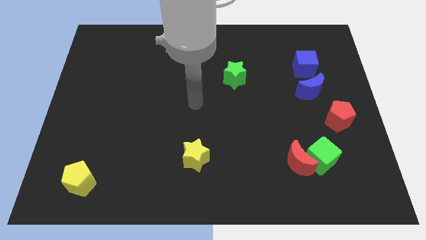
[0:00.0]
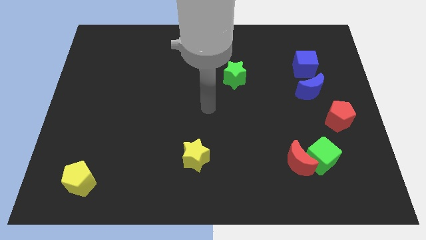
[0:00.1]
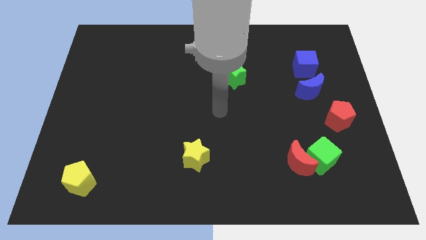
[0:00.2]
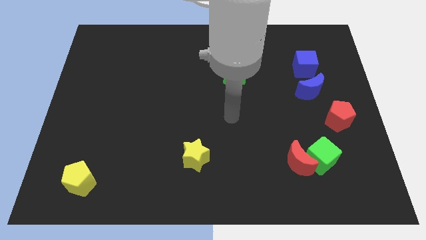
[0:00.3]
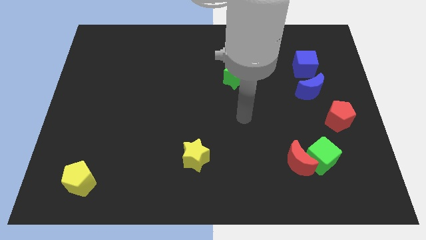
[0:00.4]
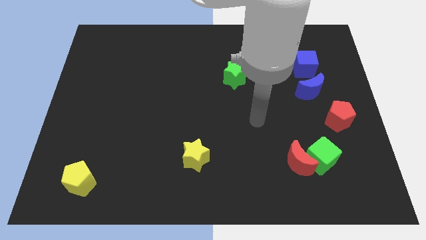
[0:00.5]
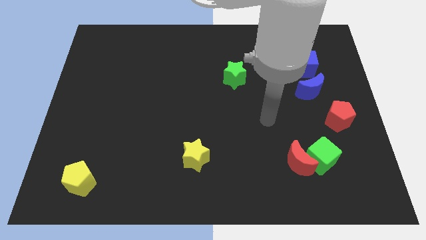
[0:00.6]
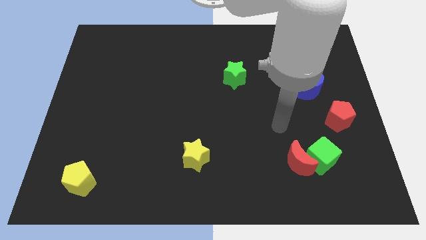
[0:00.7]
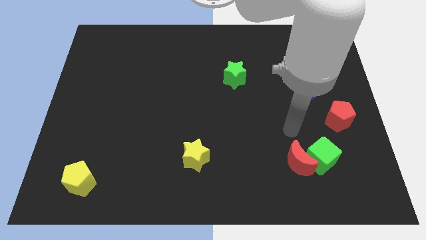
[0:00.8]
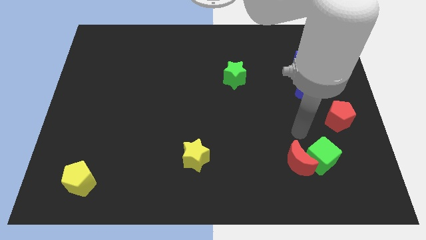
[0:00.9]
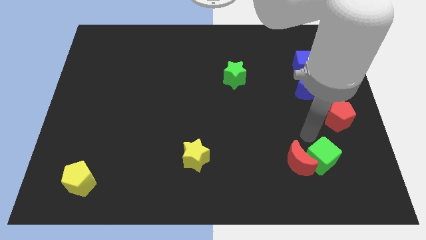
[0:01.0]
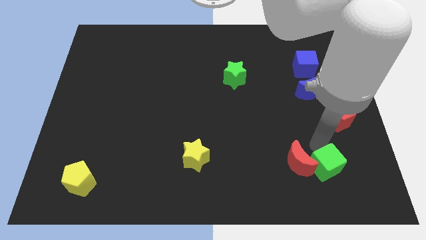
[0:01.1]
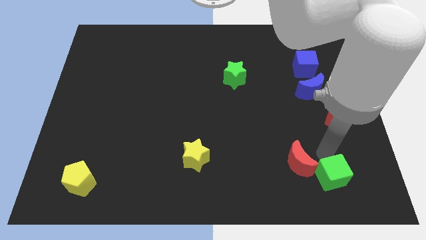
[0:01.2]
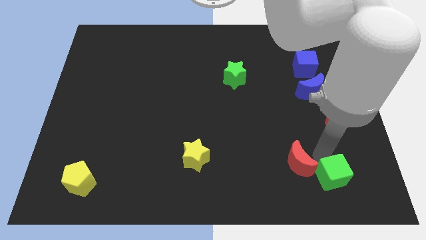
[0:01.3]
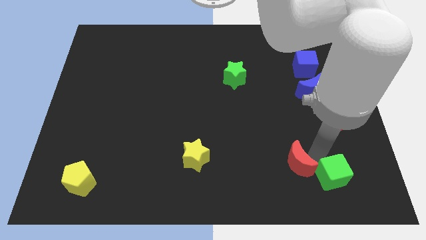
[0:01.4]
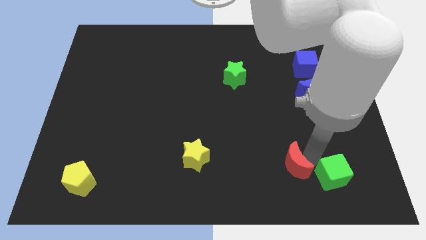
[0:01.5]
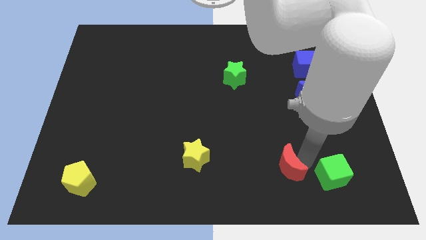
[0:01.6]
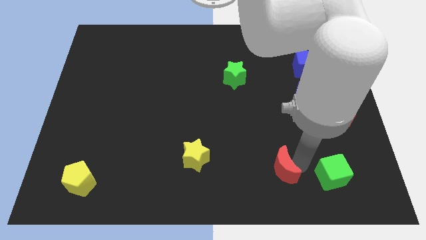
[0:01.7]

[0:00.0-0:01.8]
separate the red moon from the green cube

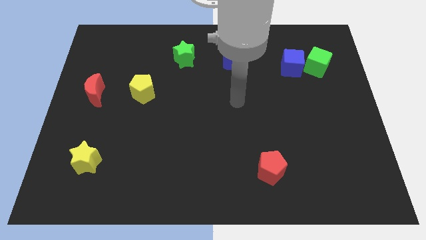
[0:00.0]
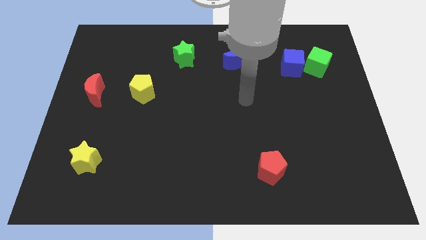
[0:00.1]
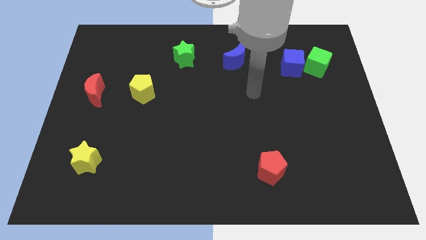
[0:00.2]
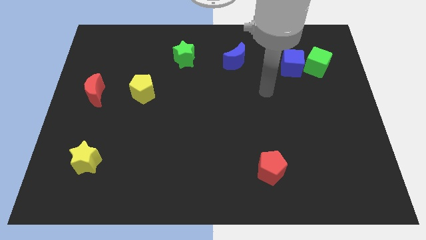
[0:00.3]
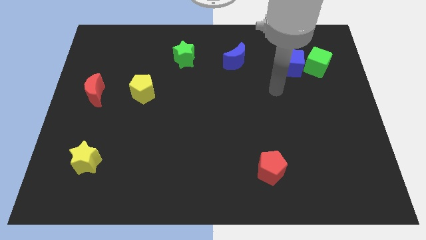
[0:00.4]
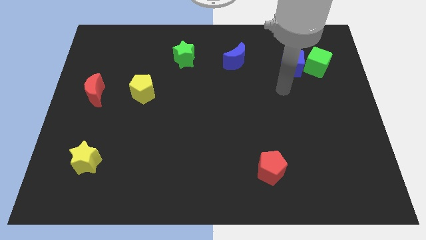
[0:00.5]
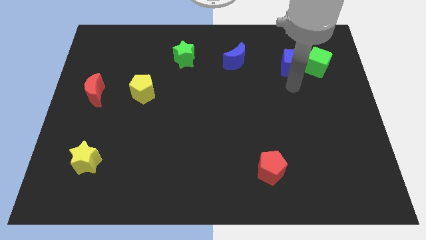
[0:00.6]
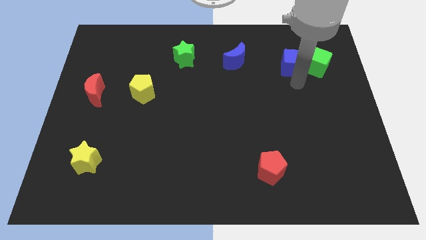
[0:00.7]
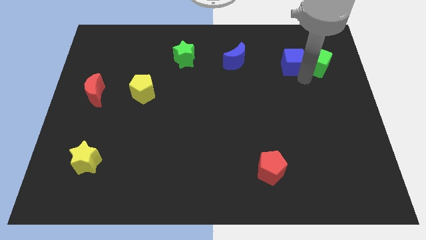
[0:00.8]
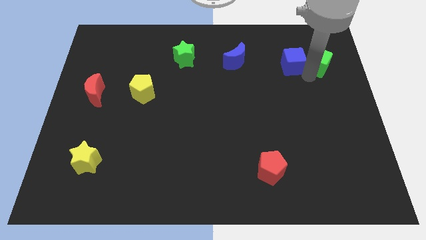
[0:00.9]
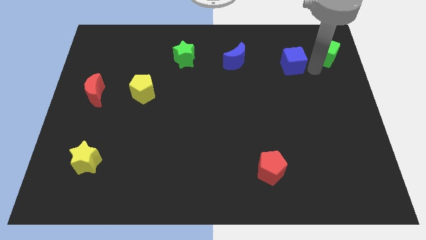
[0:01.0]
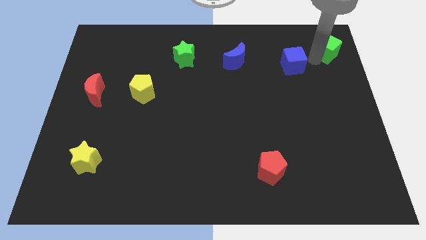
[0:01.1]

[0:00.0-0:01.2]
move the blue cube away from the green cube

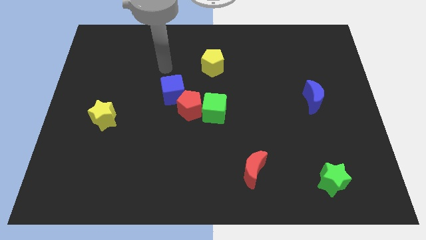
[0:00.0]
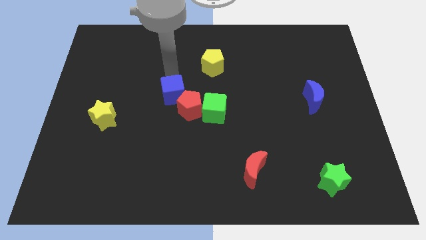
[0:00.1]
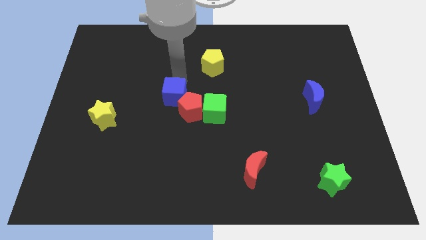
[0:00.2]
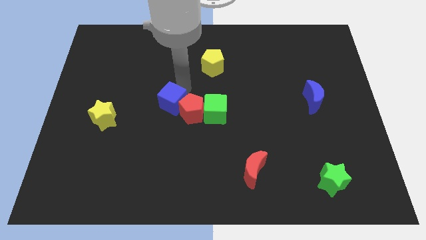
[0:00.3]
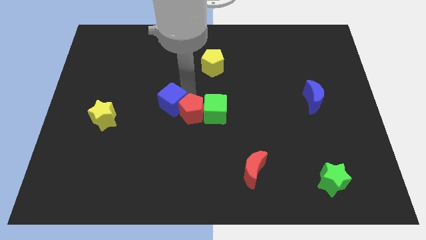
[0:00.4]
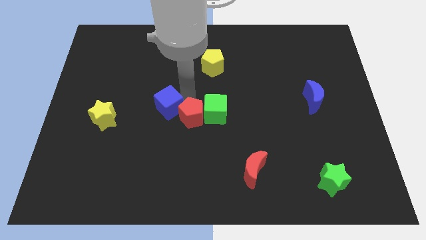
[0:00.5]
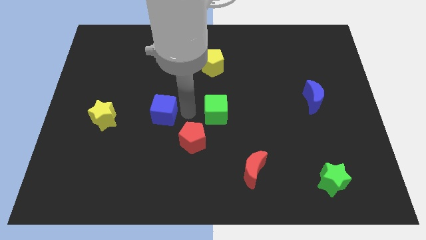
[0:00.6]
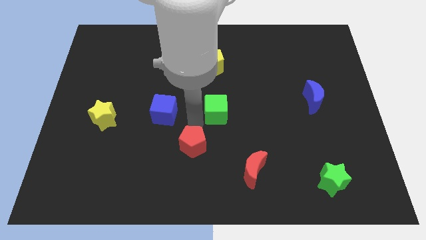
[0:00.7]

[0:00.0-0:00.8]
pull the green cube apart from the red pentagon

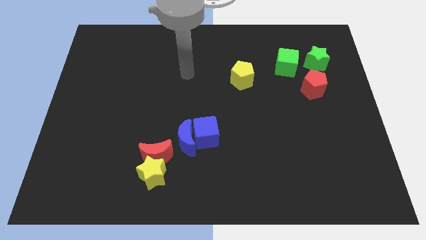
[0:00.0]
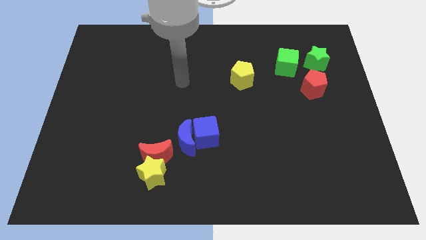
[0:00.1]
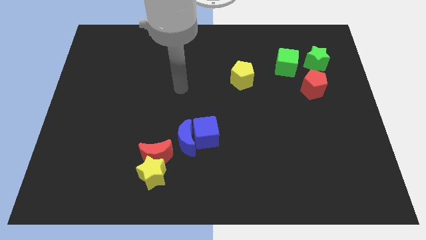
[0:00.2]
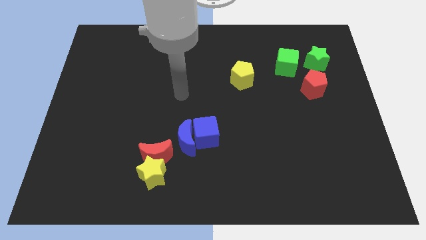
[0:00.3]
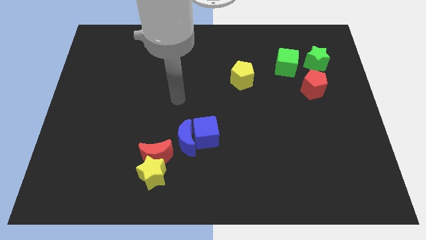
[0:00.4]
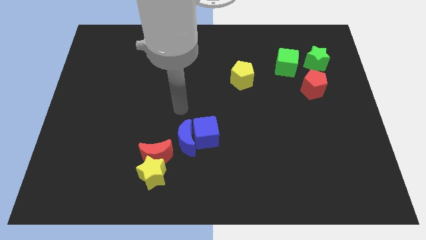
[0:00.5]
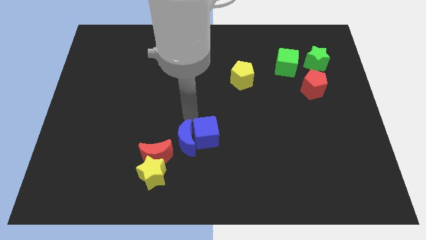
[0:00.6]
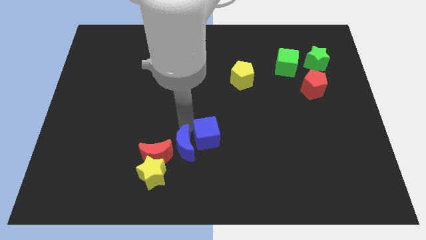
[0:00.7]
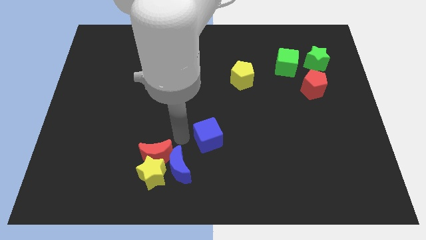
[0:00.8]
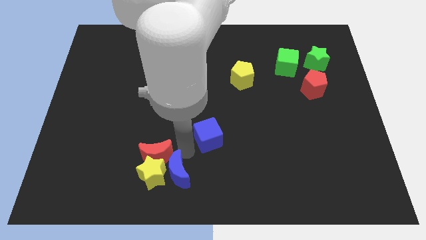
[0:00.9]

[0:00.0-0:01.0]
pull the blue cube apart from the blue moon

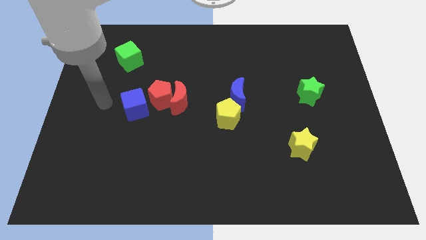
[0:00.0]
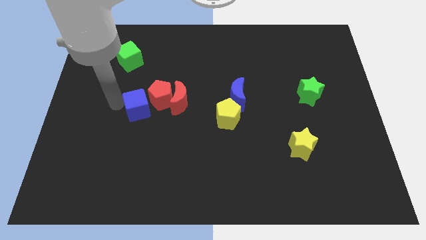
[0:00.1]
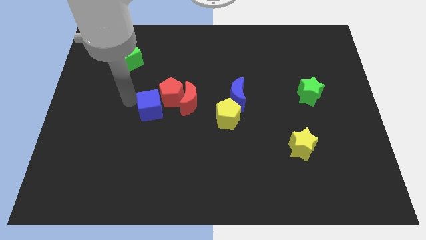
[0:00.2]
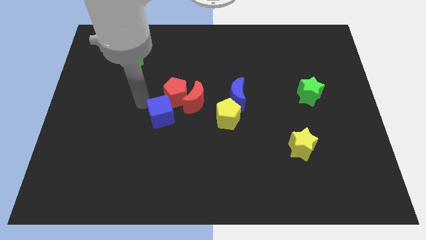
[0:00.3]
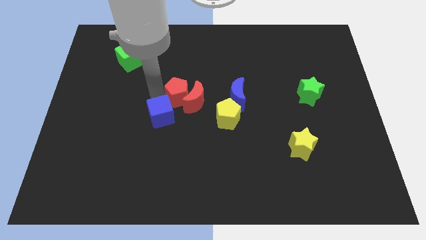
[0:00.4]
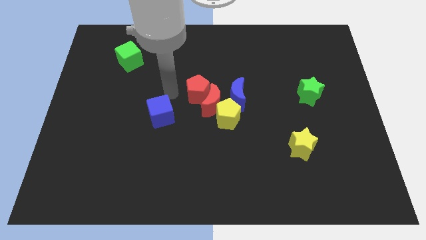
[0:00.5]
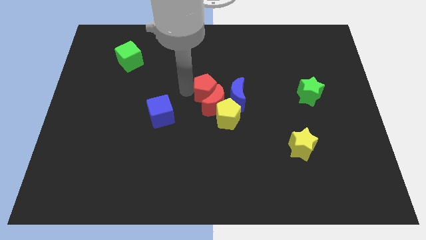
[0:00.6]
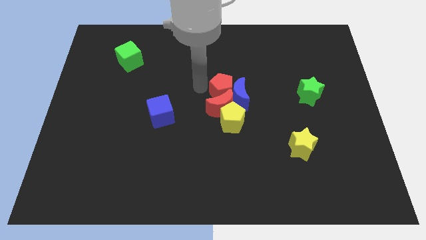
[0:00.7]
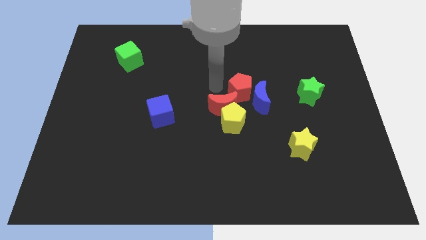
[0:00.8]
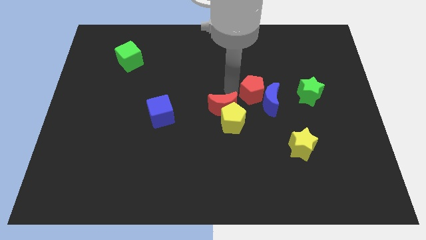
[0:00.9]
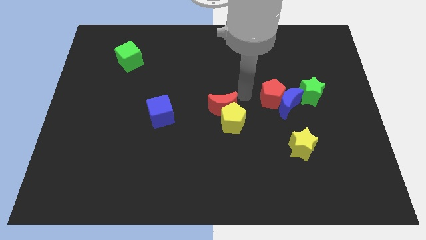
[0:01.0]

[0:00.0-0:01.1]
pull the red moon apart from the red pentagon

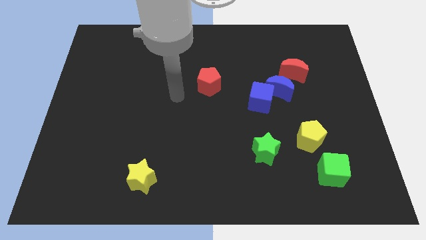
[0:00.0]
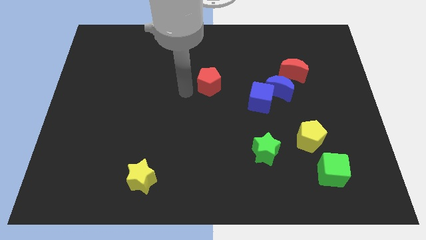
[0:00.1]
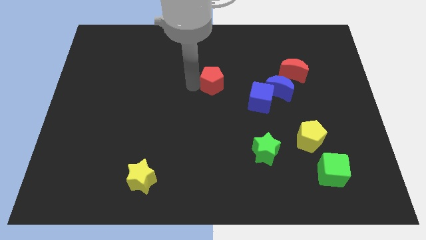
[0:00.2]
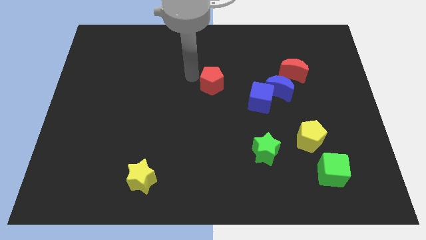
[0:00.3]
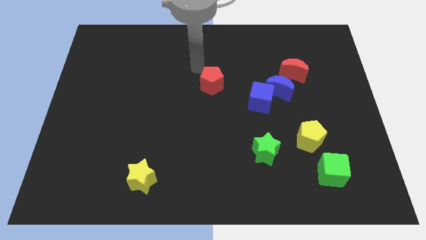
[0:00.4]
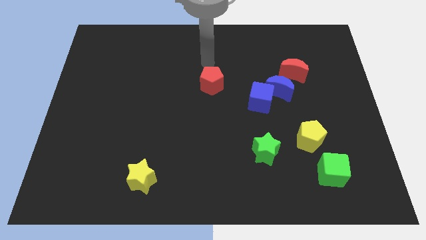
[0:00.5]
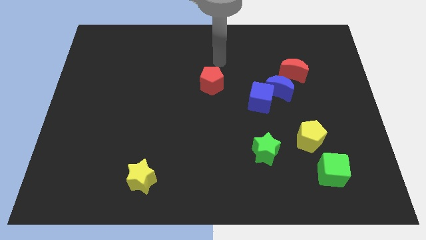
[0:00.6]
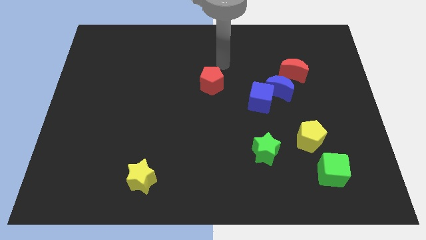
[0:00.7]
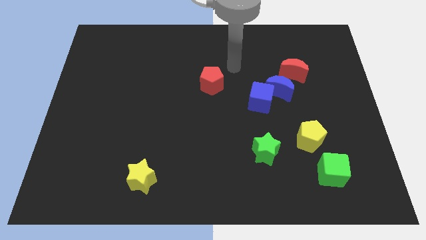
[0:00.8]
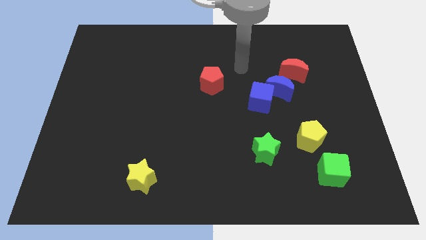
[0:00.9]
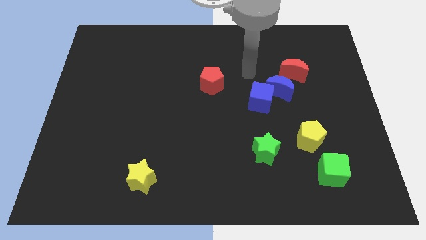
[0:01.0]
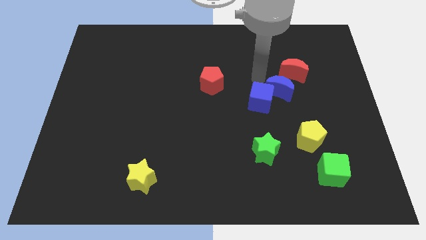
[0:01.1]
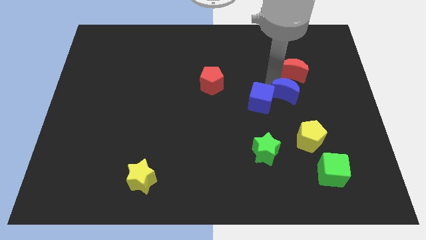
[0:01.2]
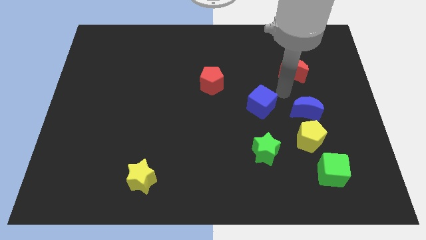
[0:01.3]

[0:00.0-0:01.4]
move the blue cube away from the blue moon

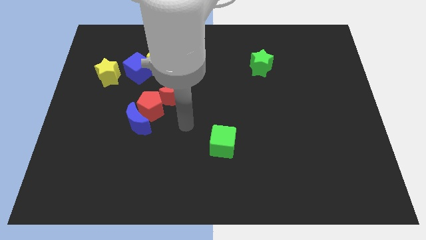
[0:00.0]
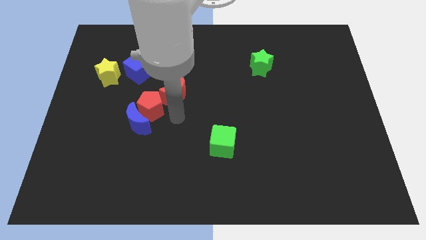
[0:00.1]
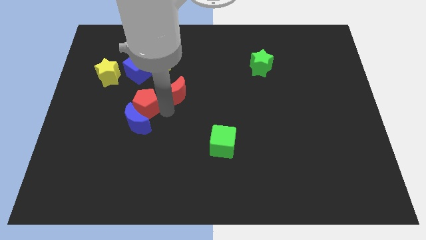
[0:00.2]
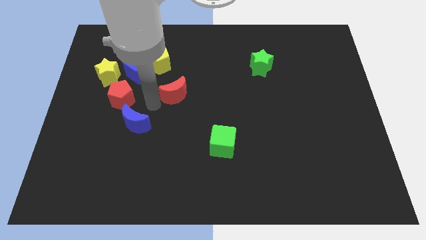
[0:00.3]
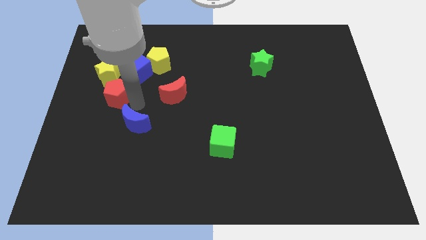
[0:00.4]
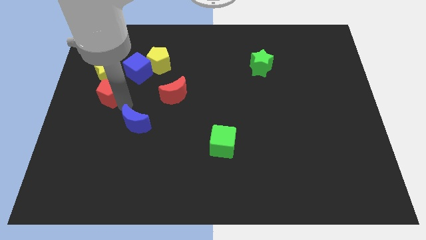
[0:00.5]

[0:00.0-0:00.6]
separate the blue moon from the red pentagon

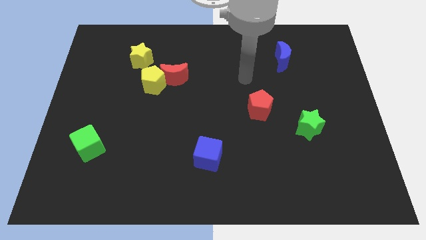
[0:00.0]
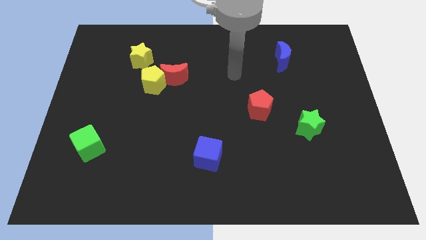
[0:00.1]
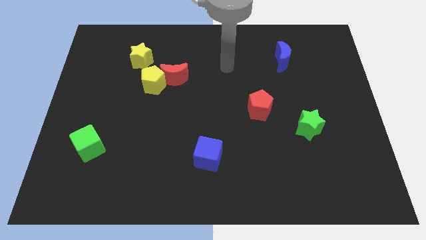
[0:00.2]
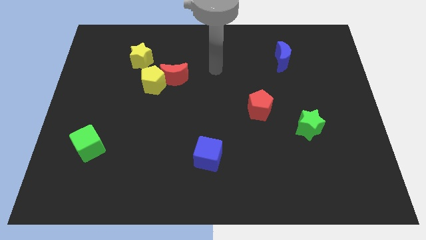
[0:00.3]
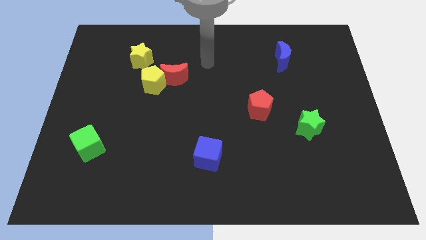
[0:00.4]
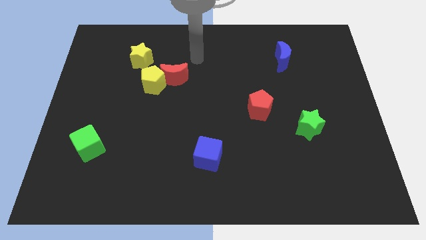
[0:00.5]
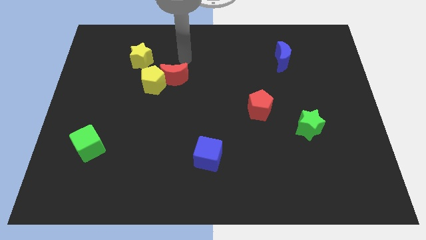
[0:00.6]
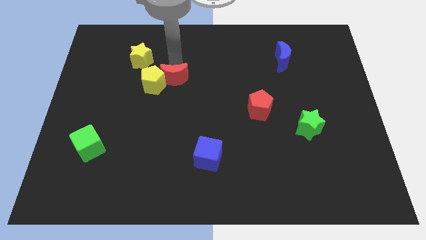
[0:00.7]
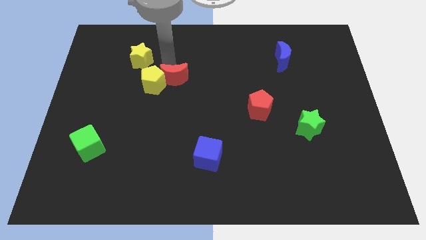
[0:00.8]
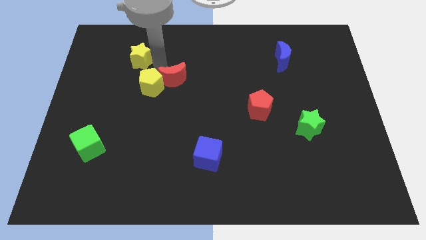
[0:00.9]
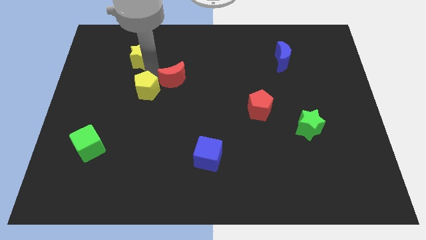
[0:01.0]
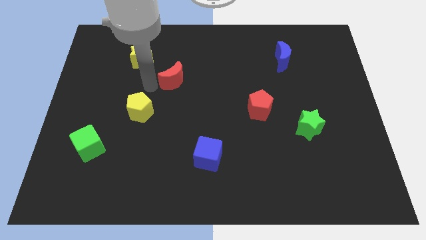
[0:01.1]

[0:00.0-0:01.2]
pull the red moon apart from the yellow pentagon

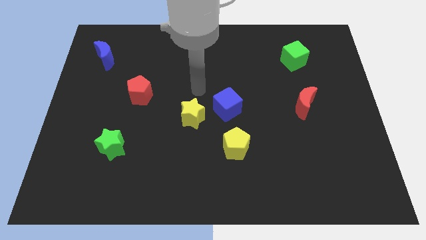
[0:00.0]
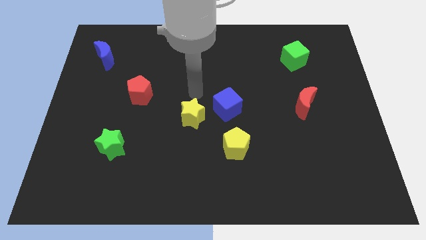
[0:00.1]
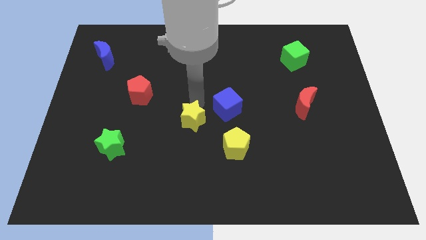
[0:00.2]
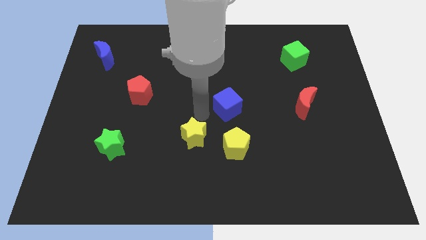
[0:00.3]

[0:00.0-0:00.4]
separate the blue cube from the yellow star
